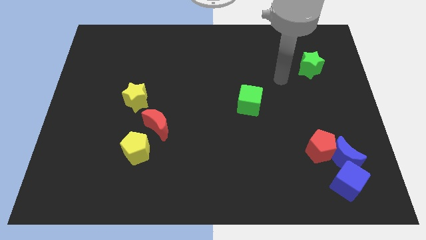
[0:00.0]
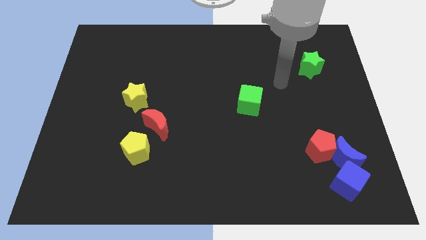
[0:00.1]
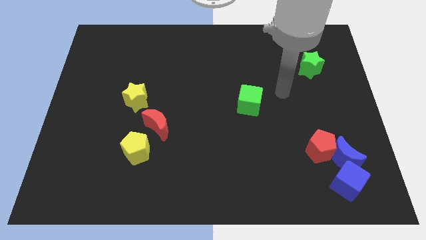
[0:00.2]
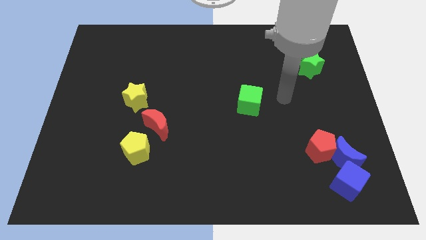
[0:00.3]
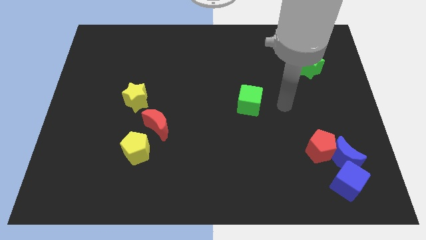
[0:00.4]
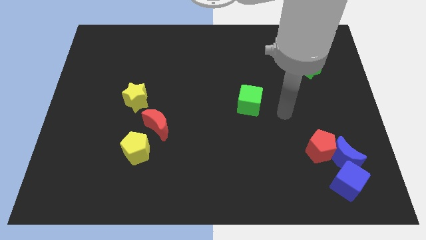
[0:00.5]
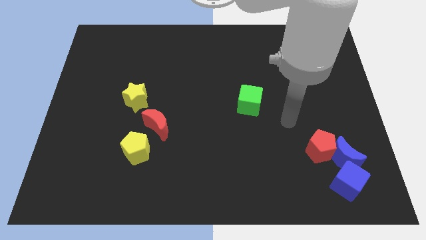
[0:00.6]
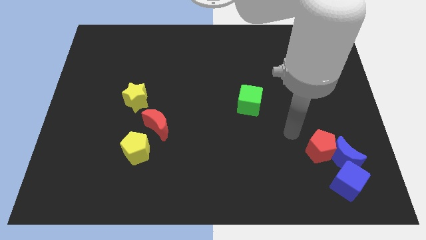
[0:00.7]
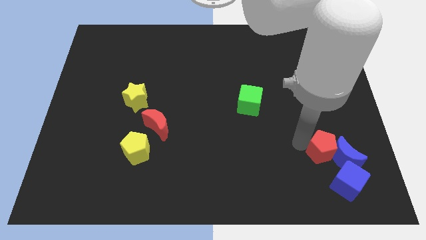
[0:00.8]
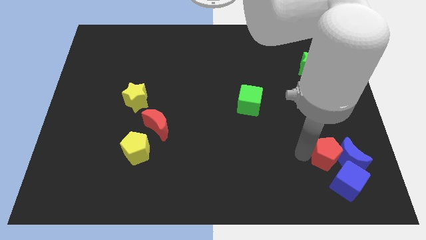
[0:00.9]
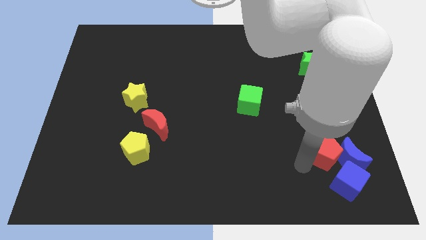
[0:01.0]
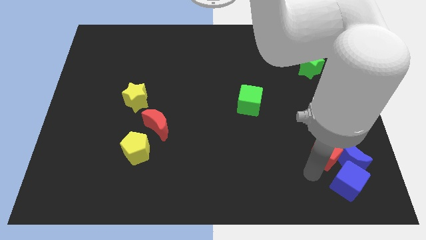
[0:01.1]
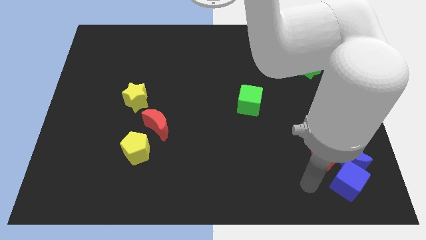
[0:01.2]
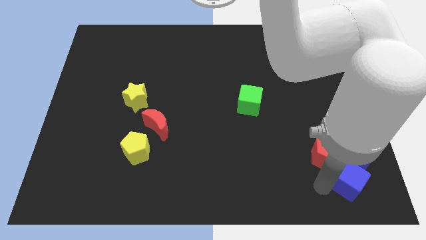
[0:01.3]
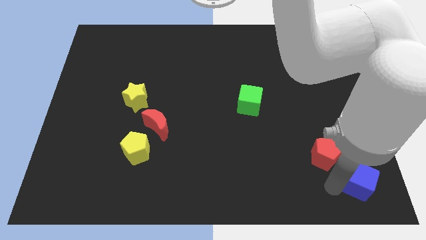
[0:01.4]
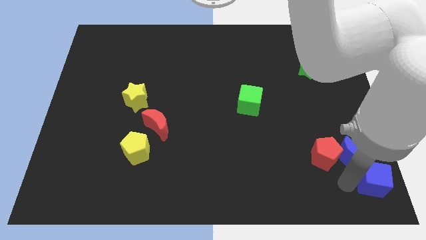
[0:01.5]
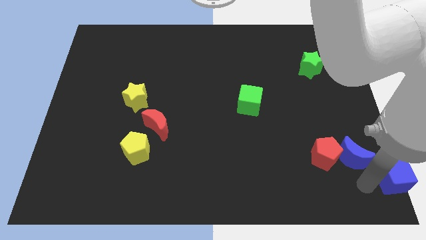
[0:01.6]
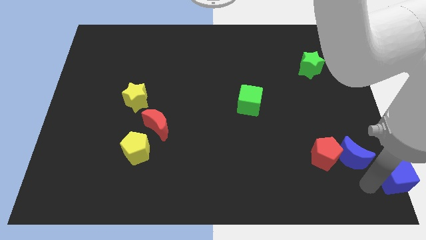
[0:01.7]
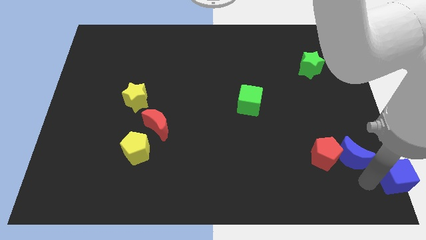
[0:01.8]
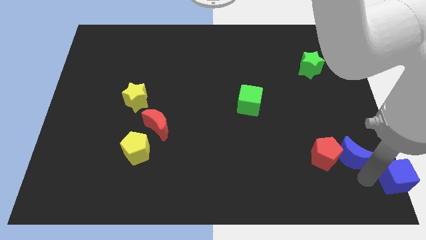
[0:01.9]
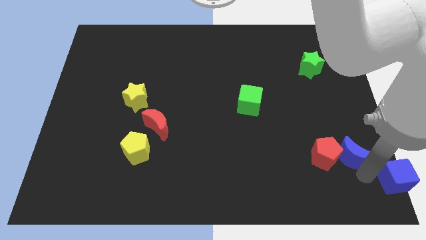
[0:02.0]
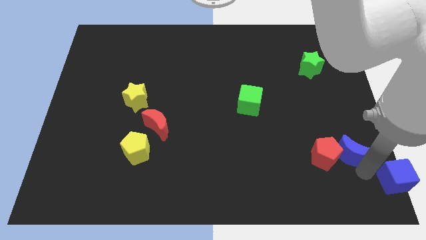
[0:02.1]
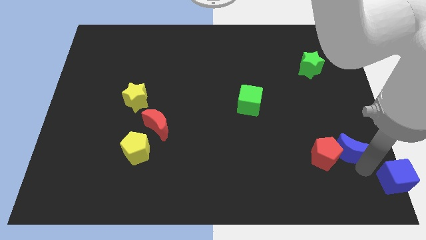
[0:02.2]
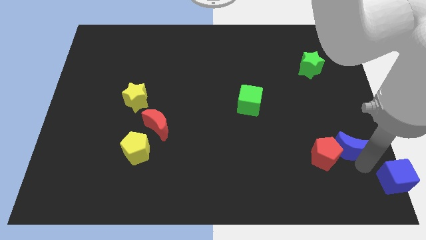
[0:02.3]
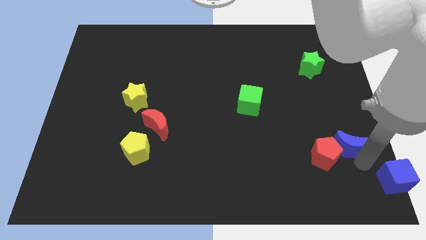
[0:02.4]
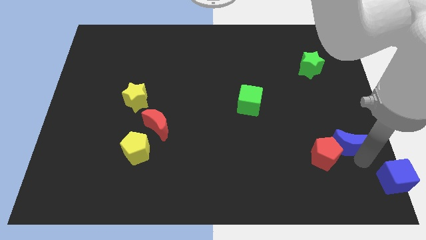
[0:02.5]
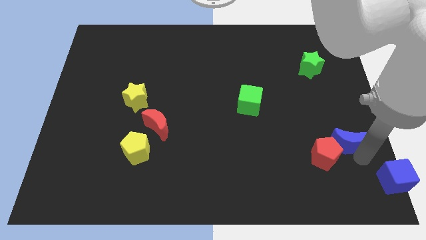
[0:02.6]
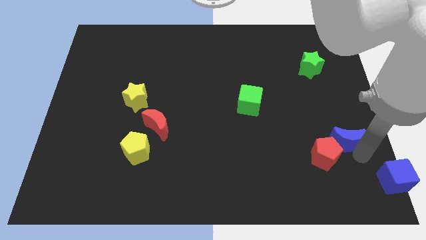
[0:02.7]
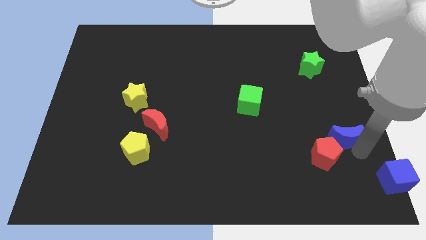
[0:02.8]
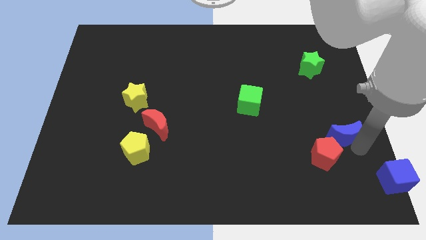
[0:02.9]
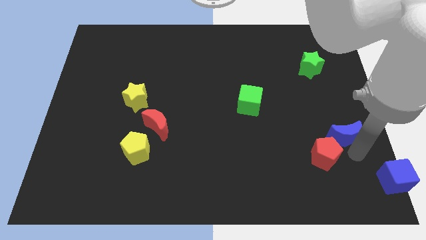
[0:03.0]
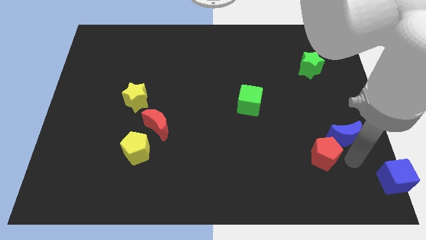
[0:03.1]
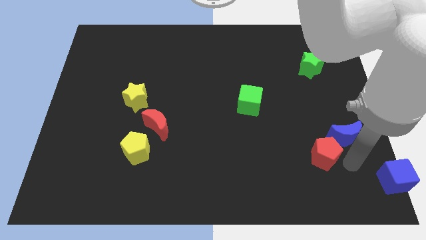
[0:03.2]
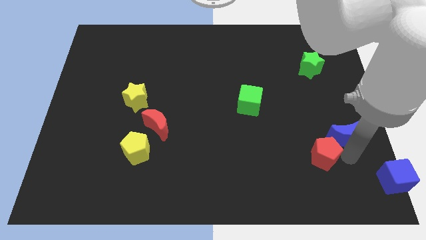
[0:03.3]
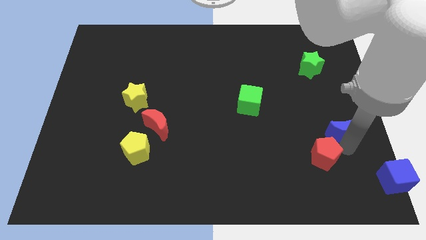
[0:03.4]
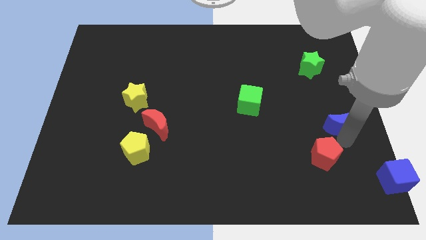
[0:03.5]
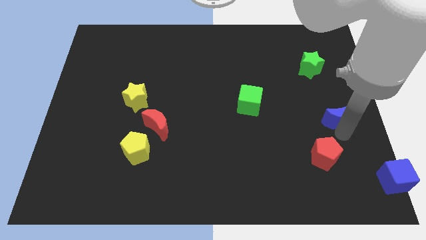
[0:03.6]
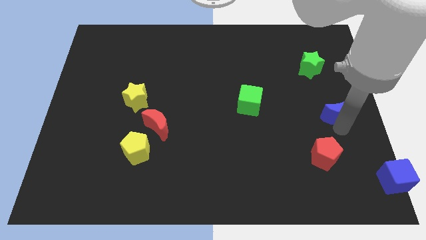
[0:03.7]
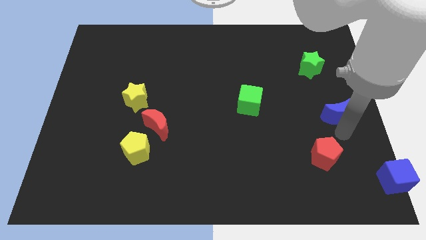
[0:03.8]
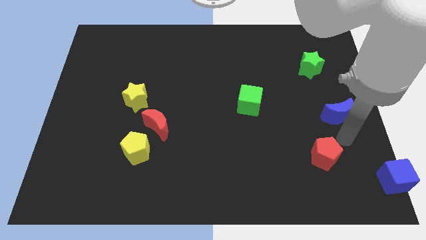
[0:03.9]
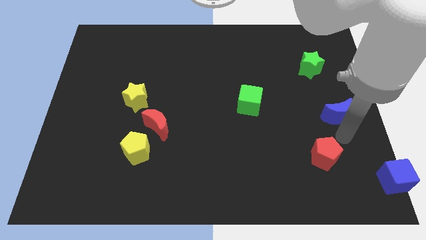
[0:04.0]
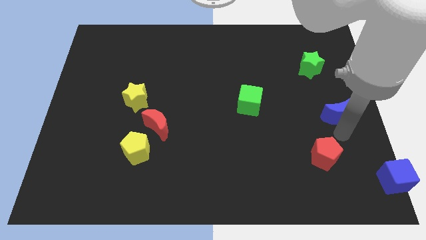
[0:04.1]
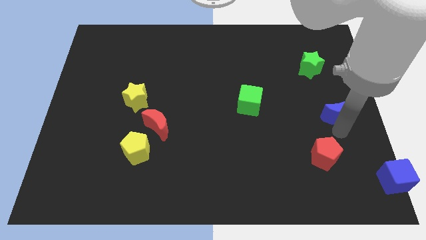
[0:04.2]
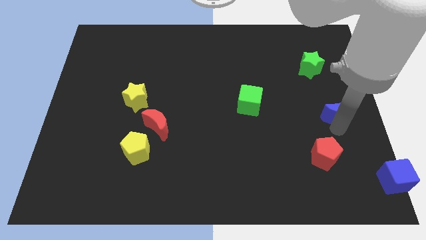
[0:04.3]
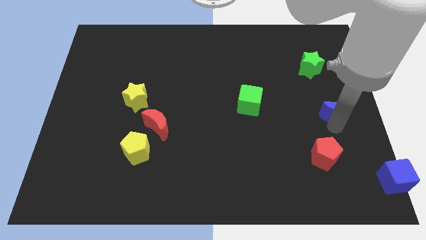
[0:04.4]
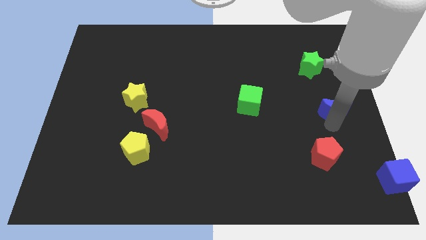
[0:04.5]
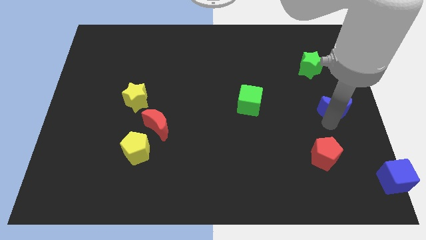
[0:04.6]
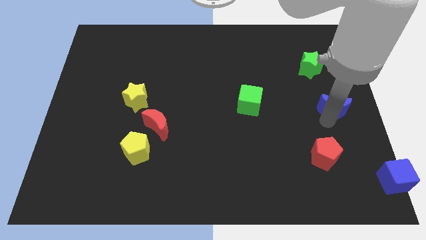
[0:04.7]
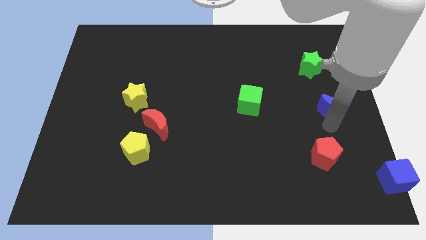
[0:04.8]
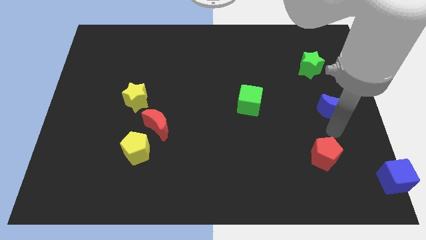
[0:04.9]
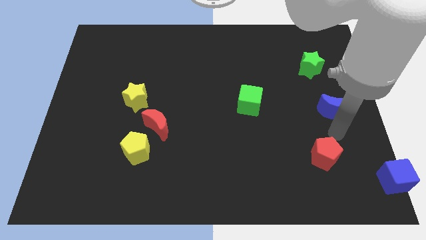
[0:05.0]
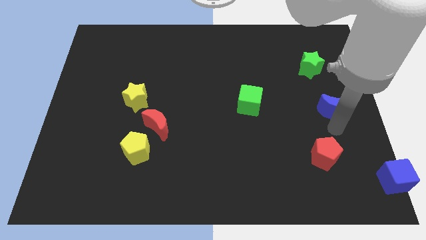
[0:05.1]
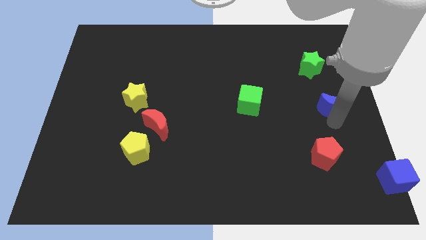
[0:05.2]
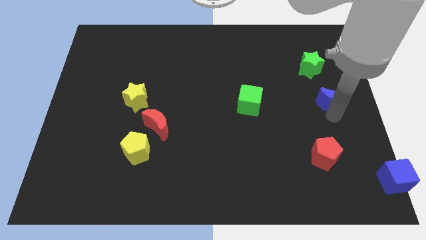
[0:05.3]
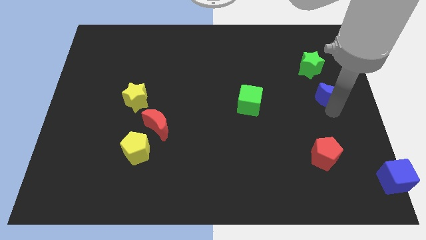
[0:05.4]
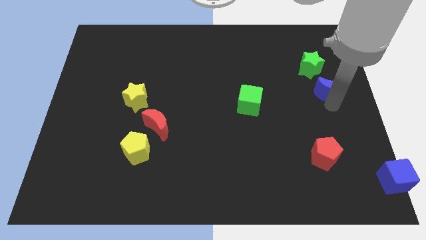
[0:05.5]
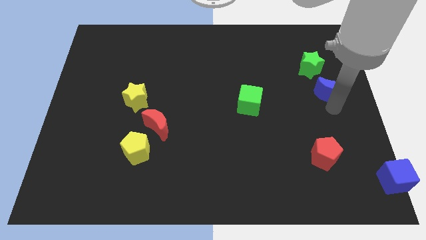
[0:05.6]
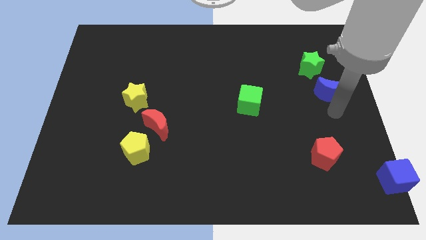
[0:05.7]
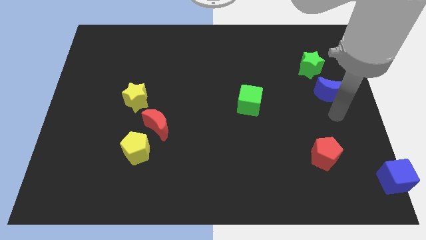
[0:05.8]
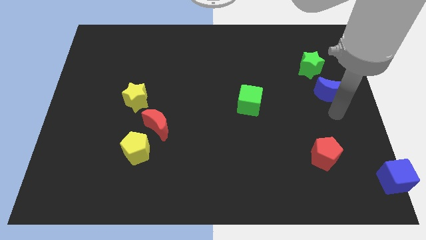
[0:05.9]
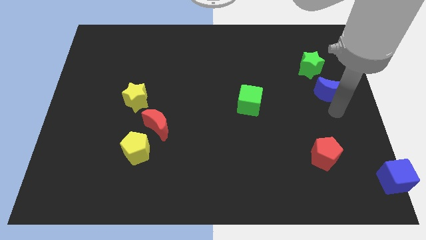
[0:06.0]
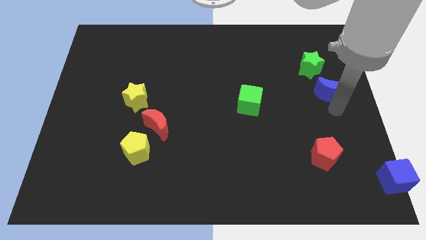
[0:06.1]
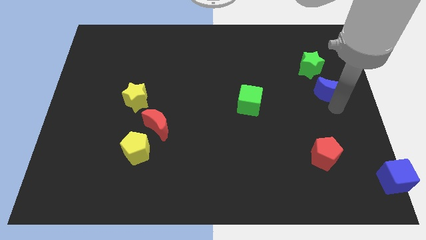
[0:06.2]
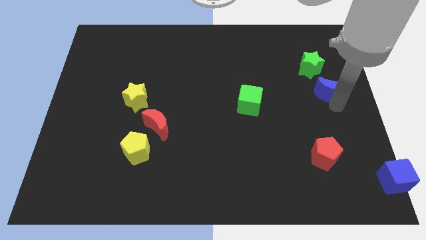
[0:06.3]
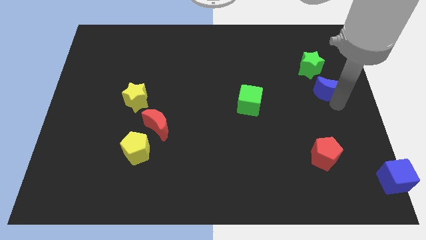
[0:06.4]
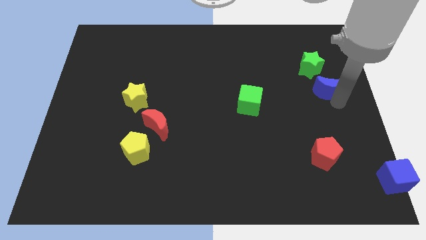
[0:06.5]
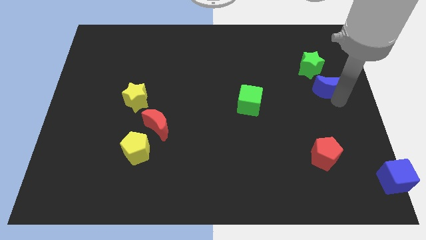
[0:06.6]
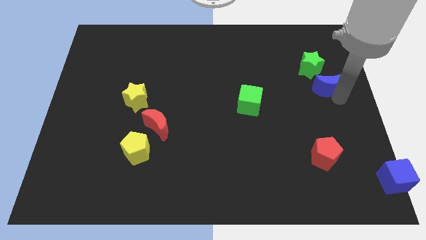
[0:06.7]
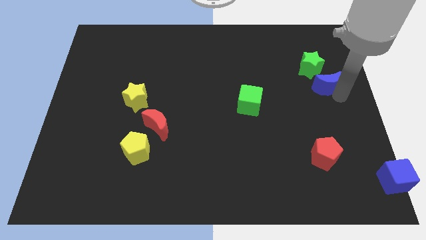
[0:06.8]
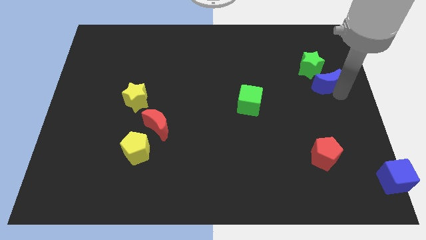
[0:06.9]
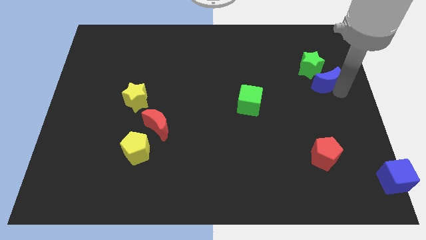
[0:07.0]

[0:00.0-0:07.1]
put the blue moon close to the green star
